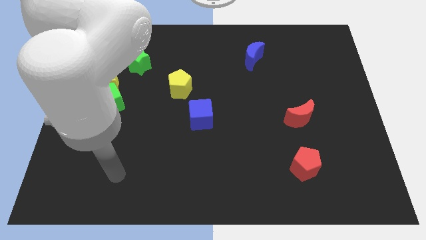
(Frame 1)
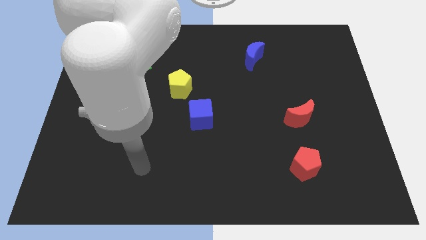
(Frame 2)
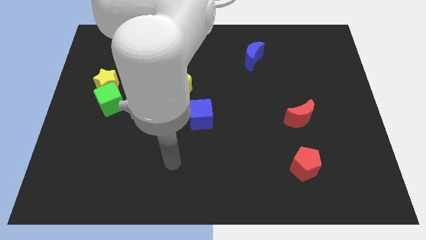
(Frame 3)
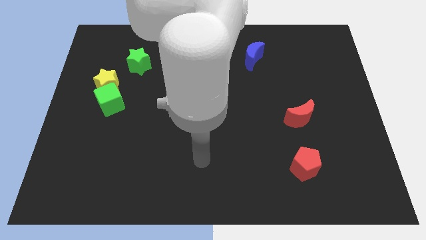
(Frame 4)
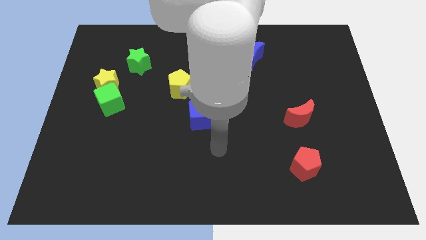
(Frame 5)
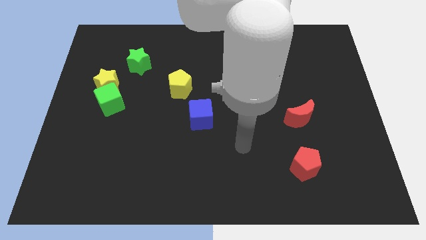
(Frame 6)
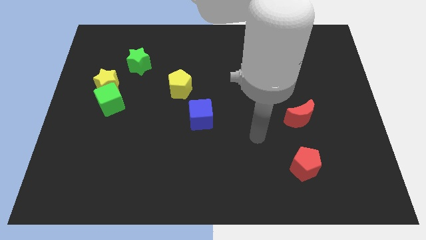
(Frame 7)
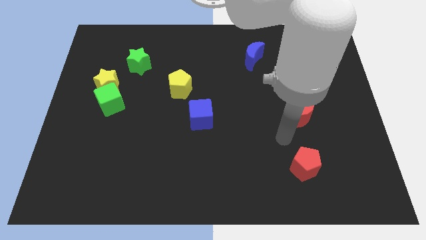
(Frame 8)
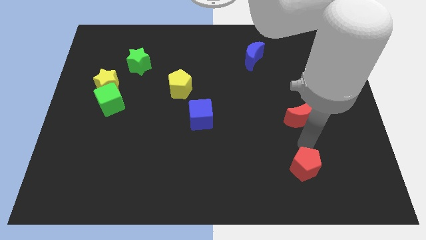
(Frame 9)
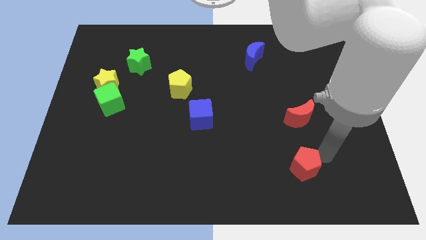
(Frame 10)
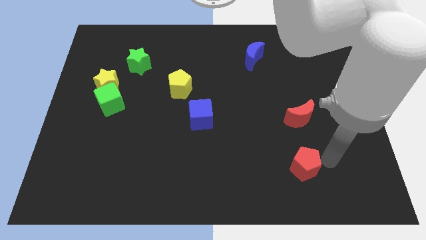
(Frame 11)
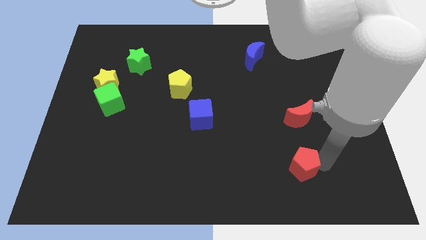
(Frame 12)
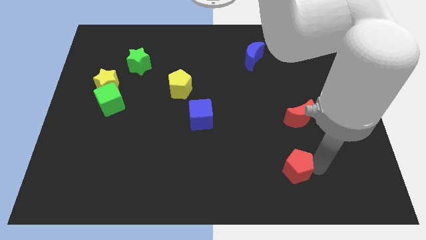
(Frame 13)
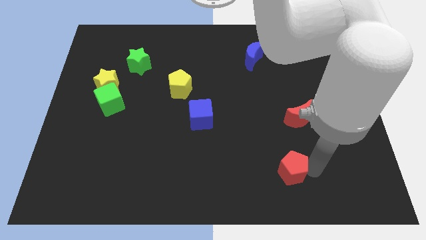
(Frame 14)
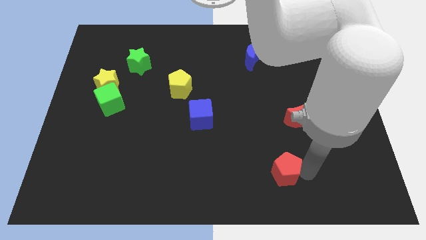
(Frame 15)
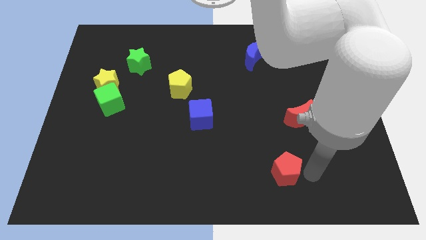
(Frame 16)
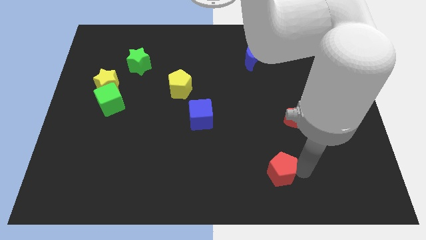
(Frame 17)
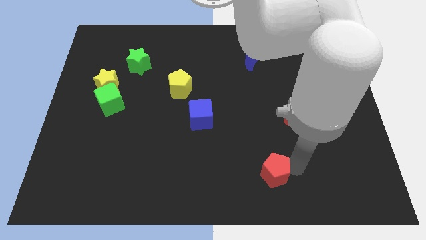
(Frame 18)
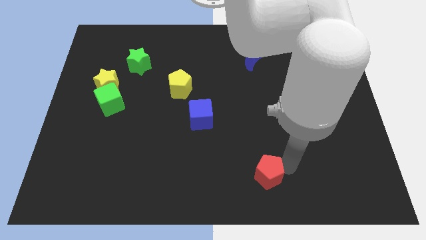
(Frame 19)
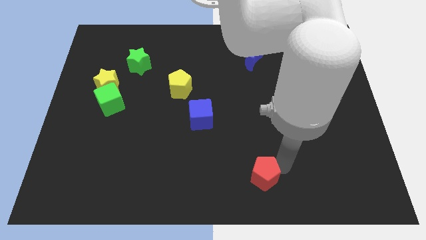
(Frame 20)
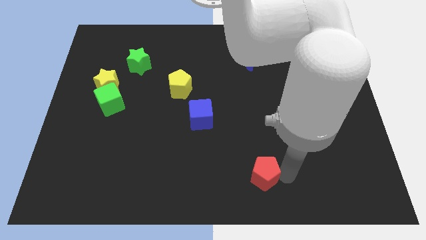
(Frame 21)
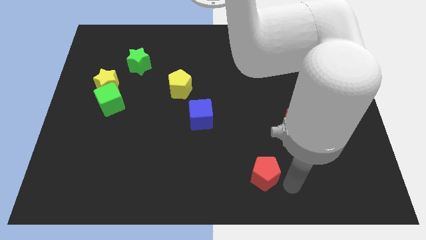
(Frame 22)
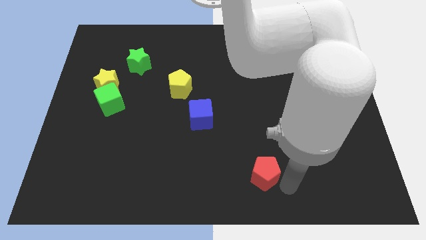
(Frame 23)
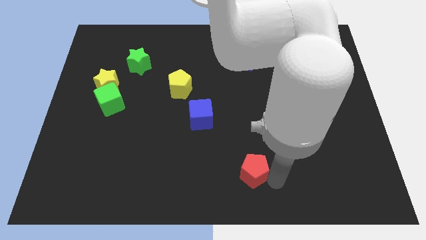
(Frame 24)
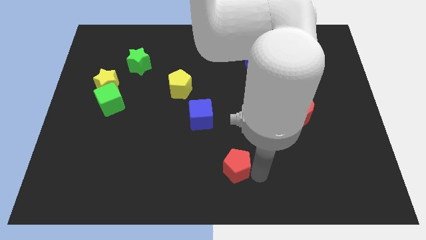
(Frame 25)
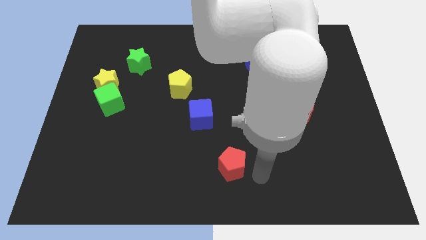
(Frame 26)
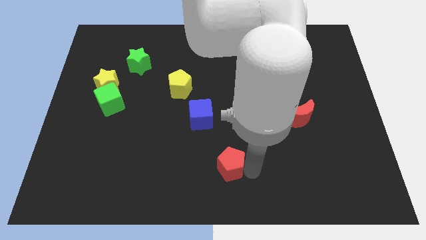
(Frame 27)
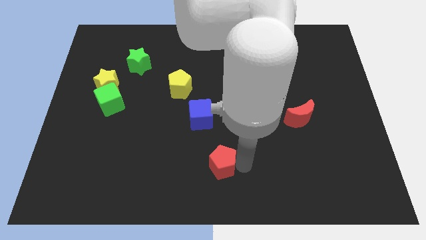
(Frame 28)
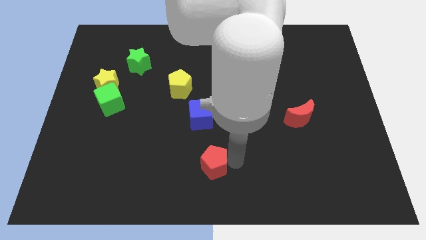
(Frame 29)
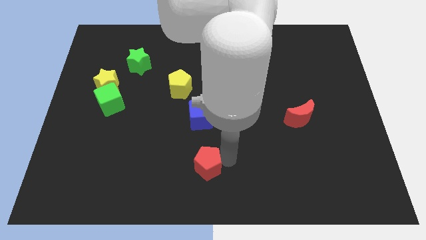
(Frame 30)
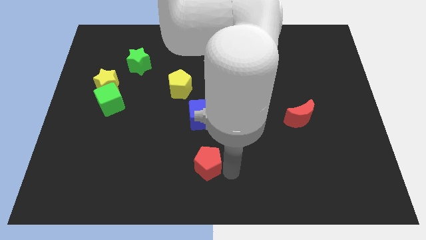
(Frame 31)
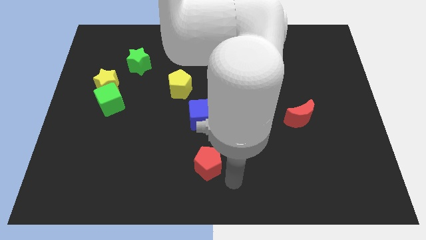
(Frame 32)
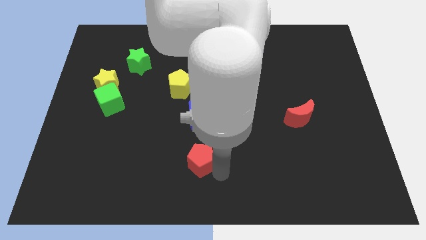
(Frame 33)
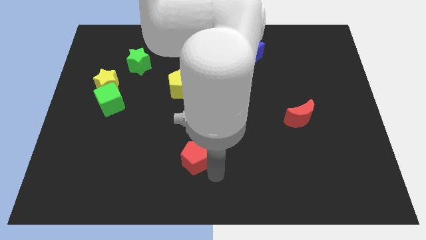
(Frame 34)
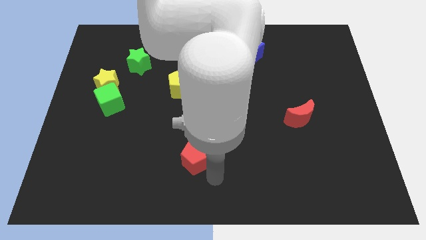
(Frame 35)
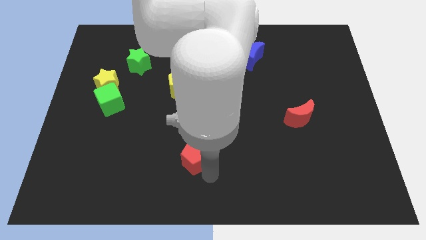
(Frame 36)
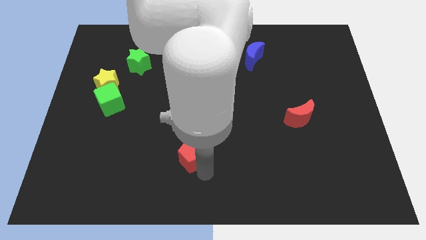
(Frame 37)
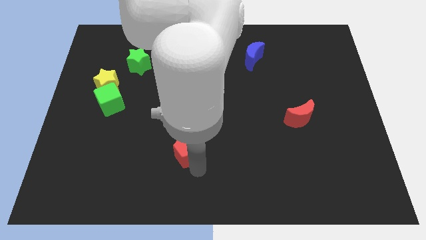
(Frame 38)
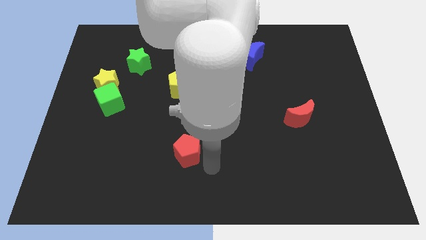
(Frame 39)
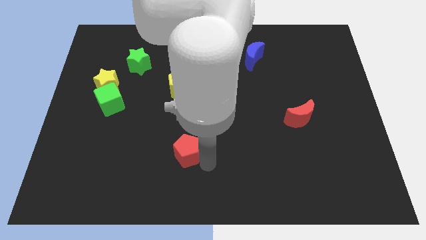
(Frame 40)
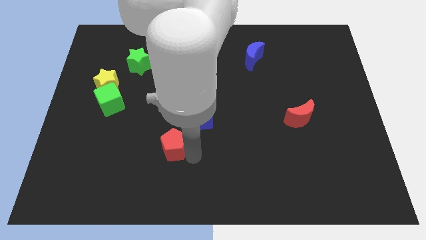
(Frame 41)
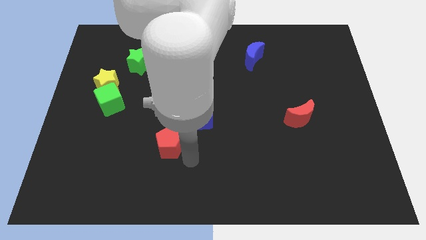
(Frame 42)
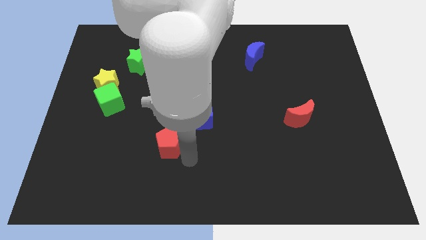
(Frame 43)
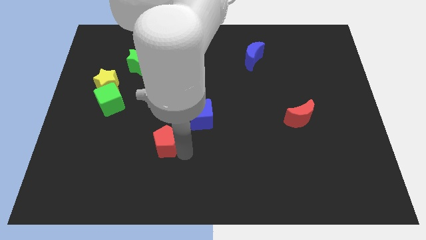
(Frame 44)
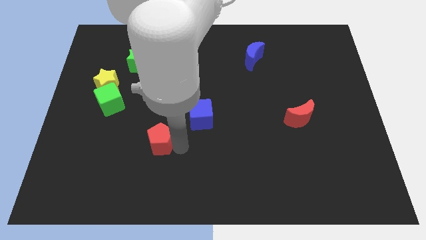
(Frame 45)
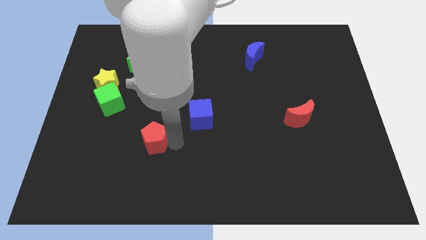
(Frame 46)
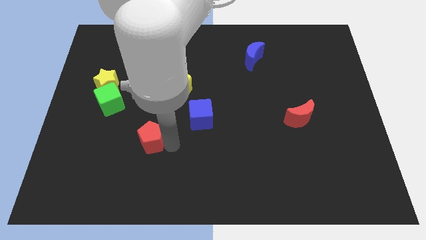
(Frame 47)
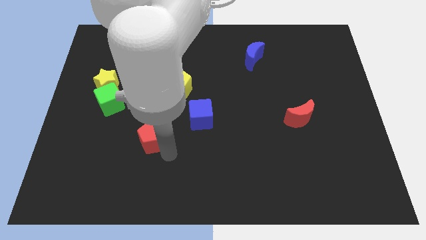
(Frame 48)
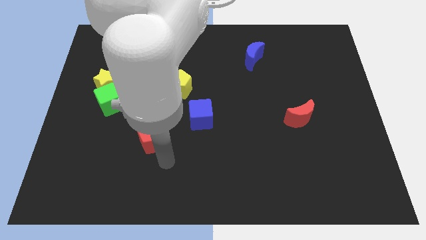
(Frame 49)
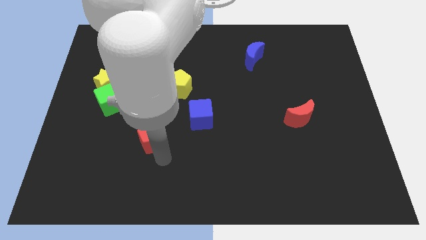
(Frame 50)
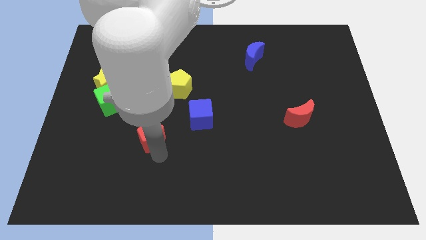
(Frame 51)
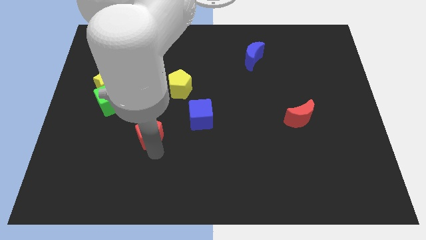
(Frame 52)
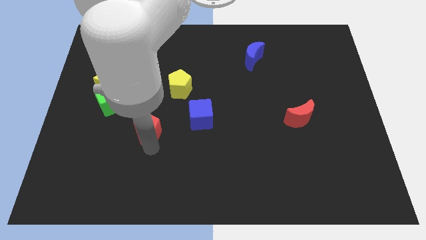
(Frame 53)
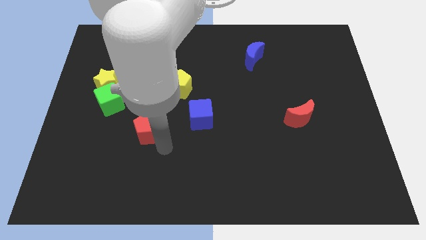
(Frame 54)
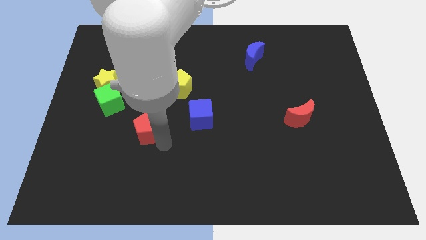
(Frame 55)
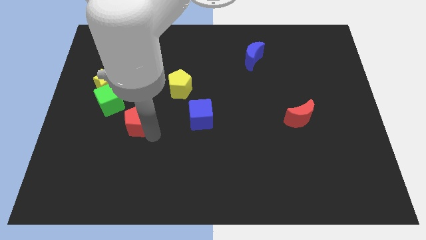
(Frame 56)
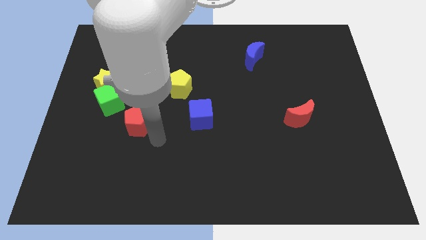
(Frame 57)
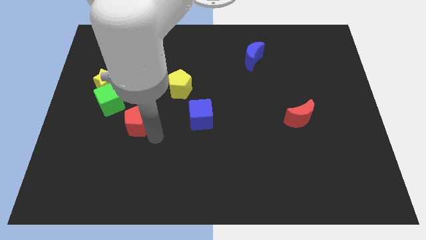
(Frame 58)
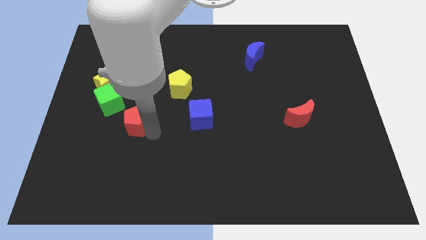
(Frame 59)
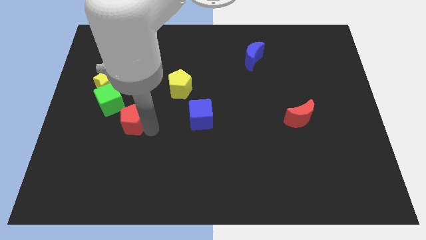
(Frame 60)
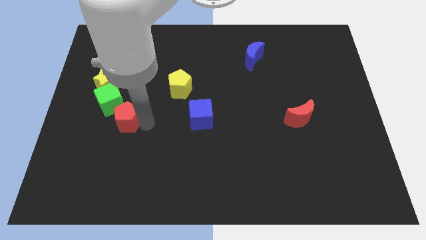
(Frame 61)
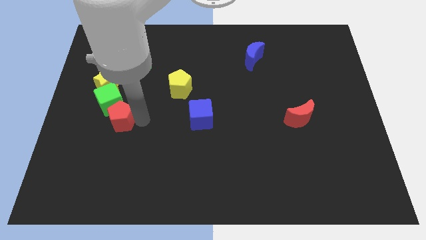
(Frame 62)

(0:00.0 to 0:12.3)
slide the red pentagon close to the green cube

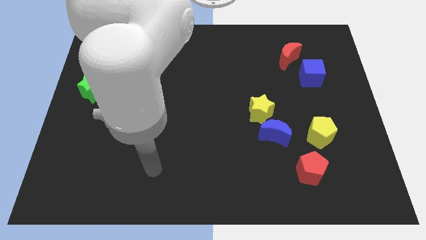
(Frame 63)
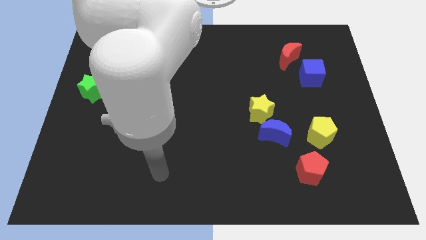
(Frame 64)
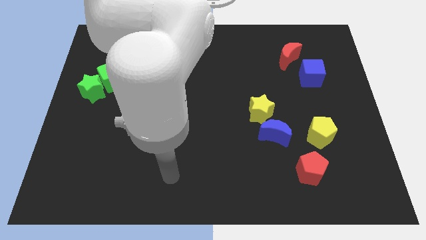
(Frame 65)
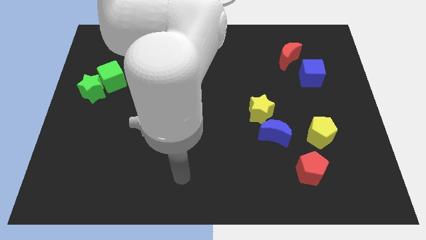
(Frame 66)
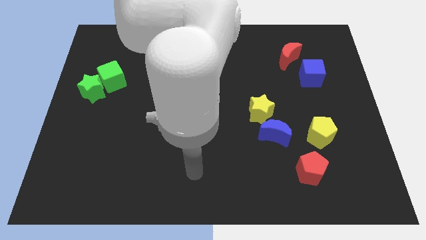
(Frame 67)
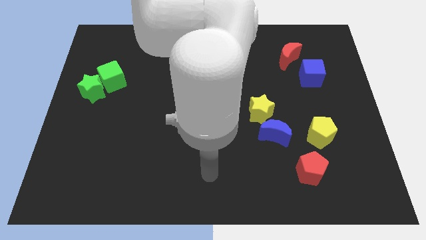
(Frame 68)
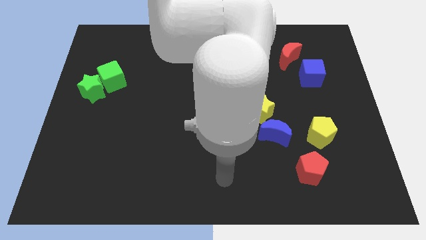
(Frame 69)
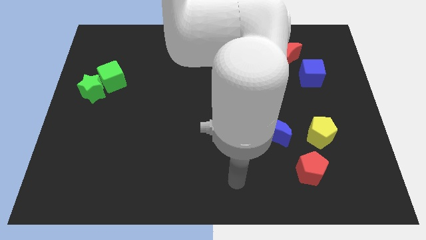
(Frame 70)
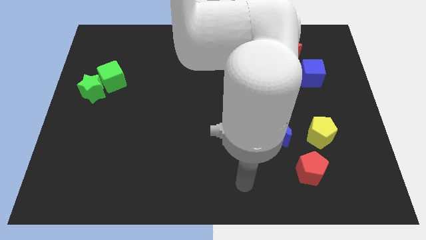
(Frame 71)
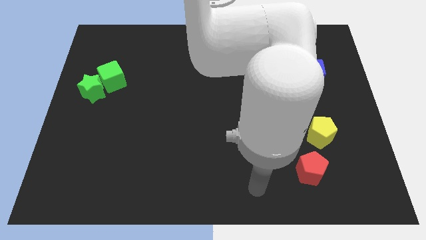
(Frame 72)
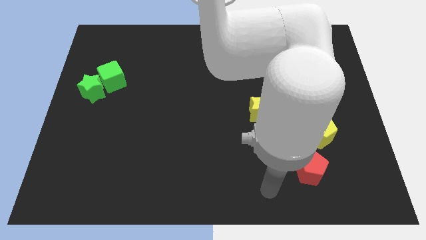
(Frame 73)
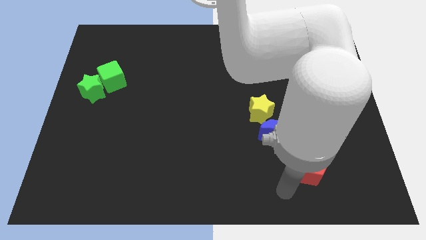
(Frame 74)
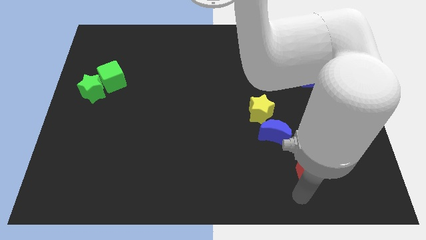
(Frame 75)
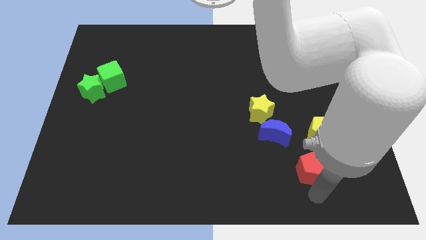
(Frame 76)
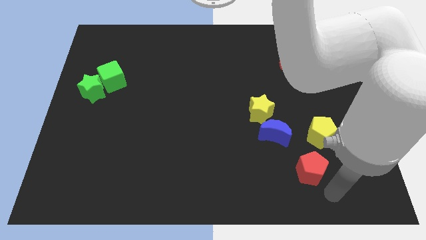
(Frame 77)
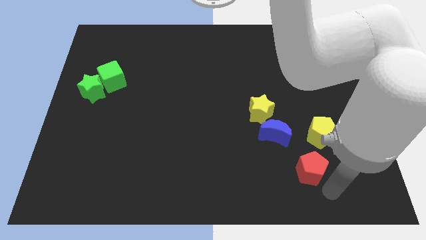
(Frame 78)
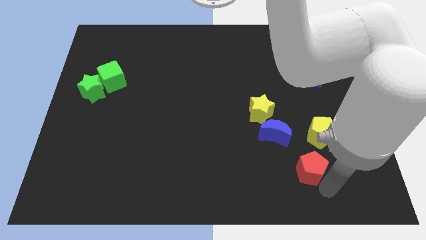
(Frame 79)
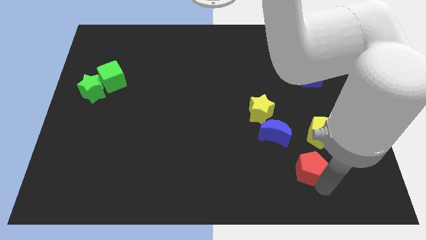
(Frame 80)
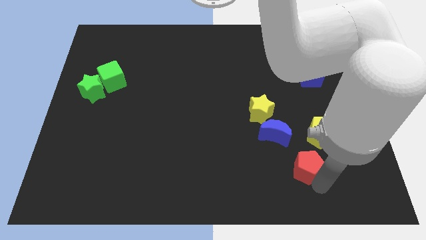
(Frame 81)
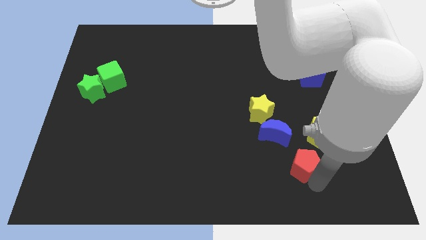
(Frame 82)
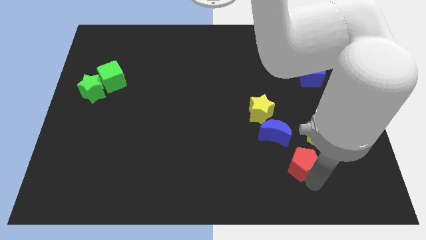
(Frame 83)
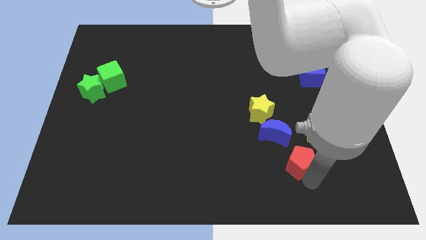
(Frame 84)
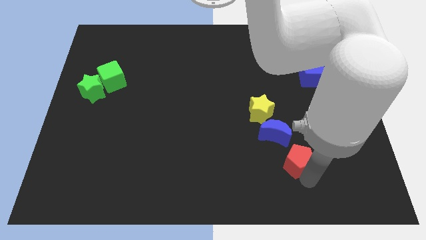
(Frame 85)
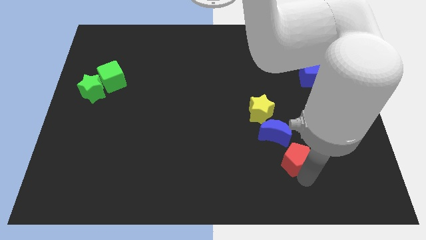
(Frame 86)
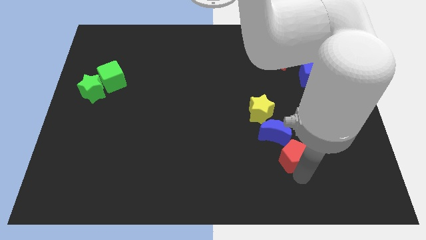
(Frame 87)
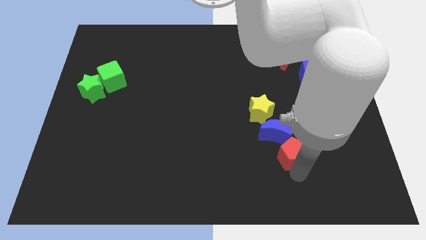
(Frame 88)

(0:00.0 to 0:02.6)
put the red pentagon next to the blue moon
